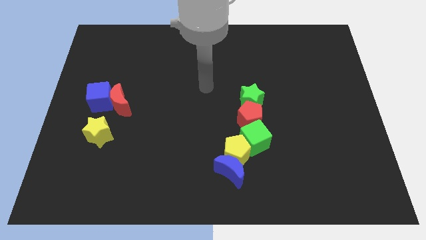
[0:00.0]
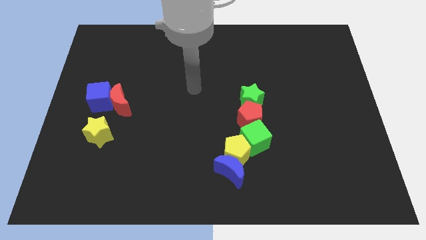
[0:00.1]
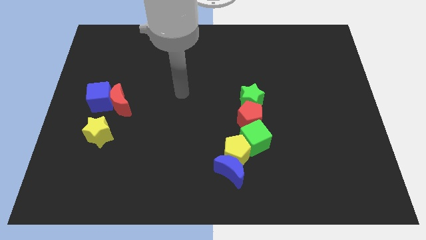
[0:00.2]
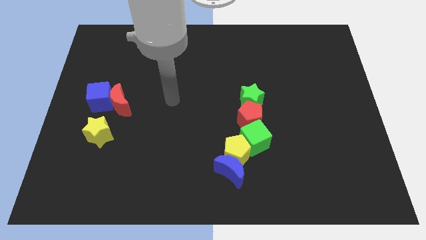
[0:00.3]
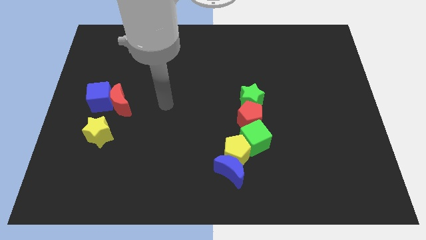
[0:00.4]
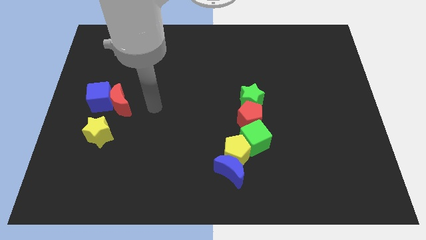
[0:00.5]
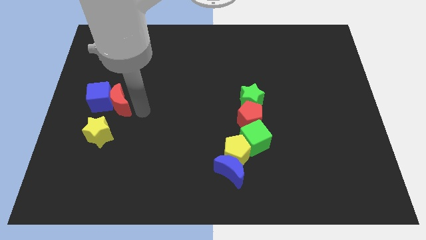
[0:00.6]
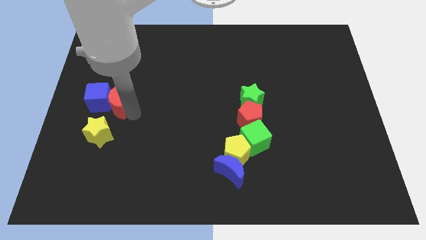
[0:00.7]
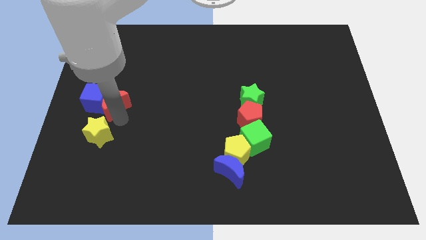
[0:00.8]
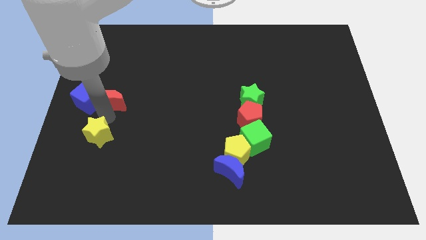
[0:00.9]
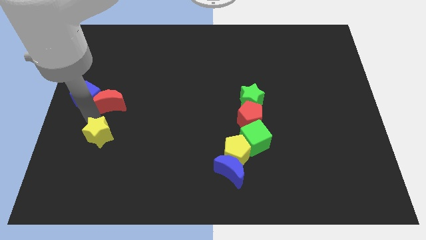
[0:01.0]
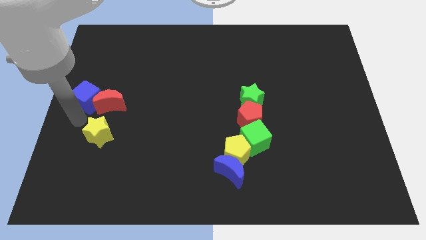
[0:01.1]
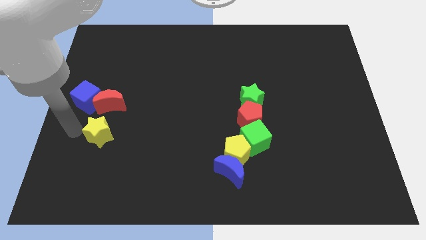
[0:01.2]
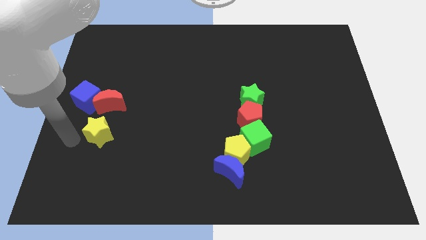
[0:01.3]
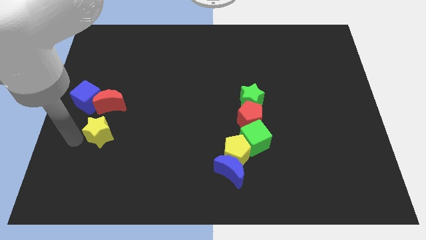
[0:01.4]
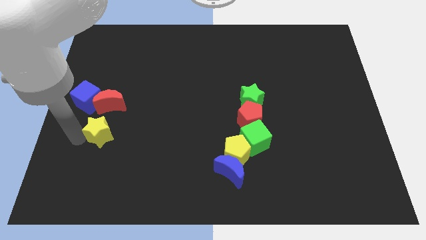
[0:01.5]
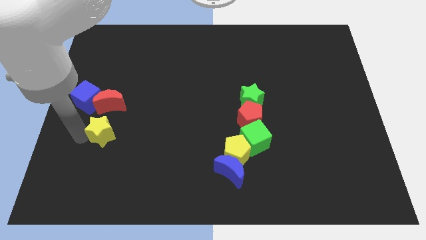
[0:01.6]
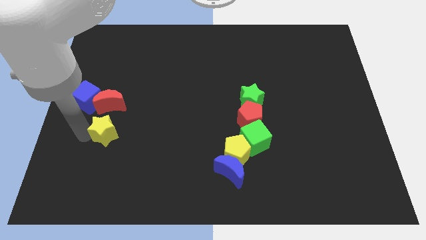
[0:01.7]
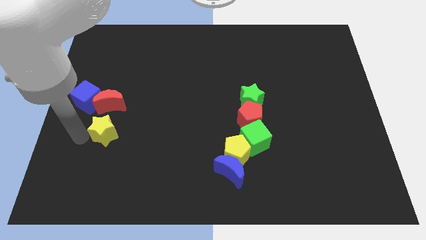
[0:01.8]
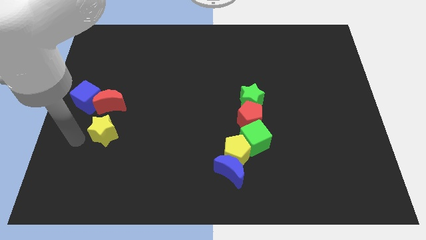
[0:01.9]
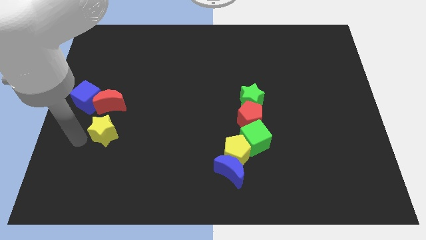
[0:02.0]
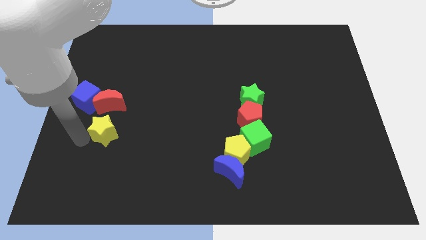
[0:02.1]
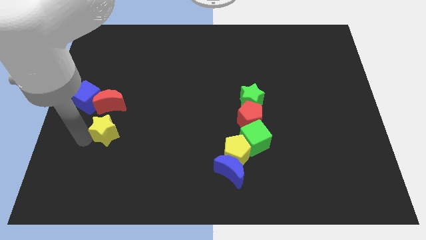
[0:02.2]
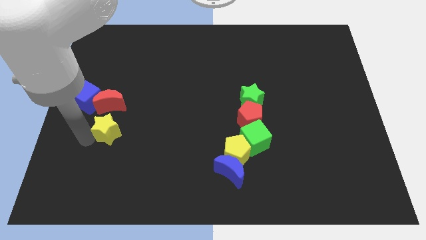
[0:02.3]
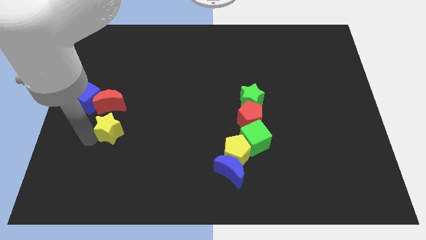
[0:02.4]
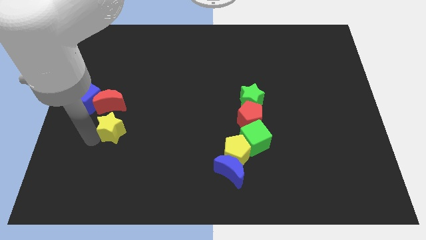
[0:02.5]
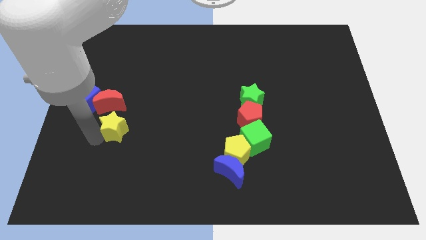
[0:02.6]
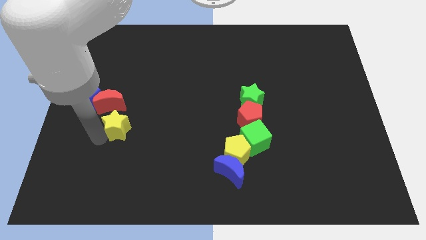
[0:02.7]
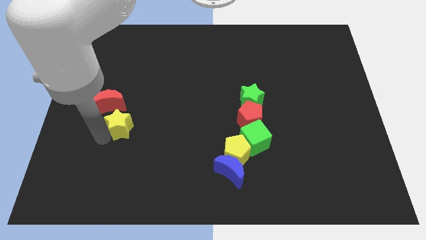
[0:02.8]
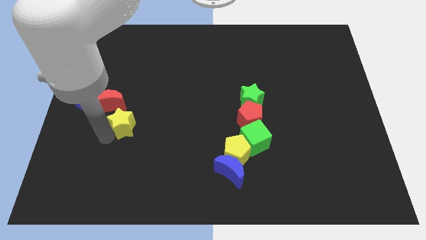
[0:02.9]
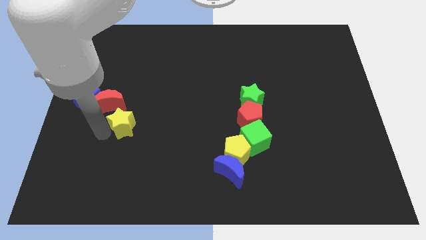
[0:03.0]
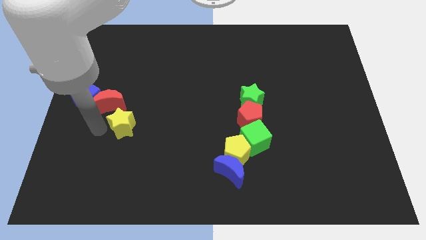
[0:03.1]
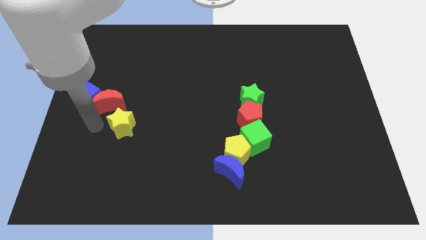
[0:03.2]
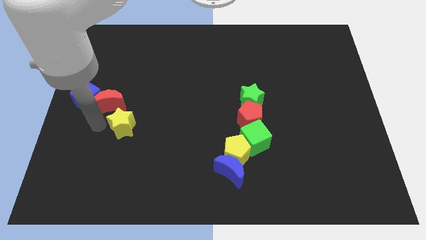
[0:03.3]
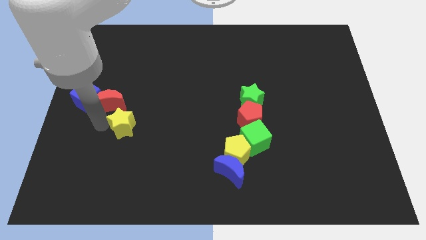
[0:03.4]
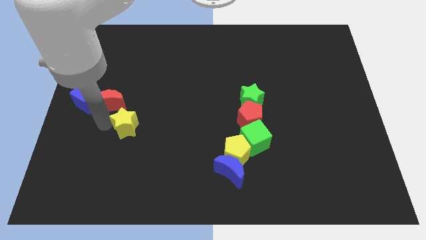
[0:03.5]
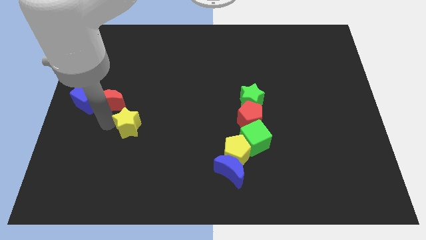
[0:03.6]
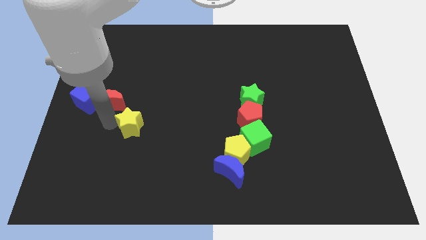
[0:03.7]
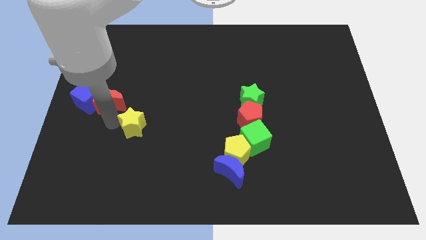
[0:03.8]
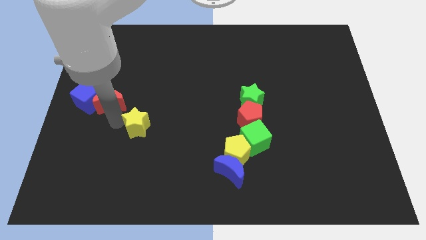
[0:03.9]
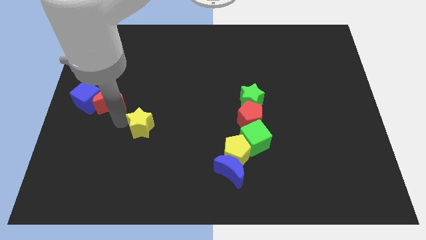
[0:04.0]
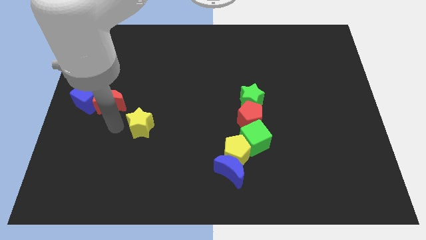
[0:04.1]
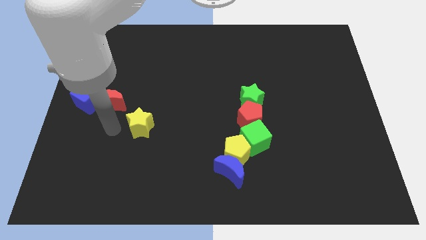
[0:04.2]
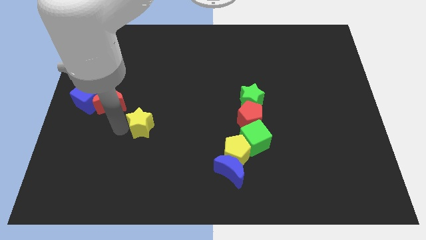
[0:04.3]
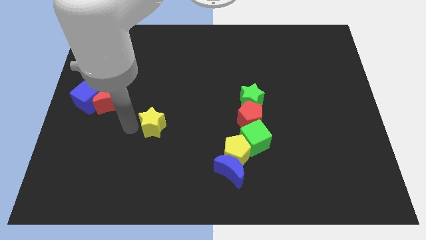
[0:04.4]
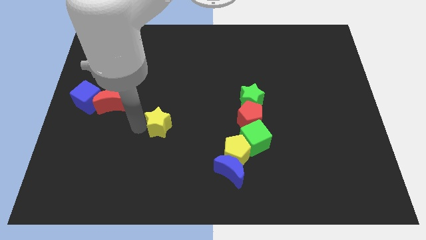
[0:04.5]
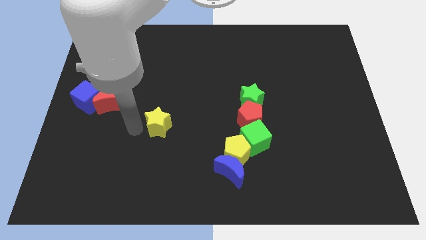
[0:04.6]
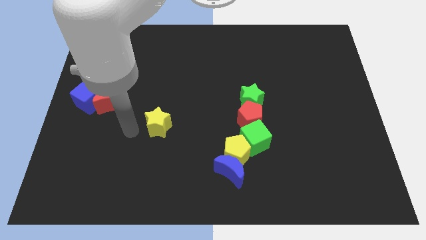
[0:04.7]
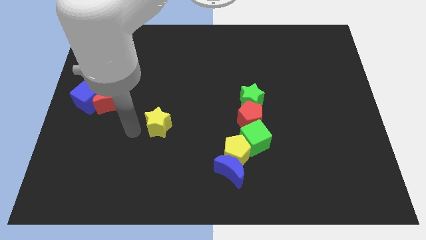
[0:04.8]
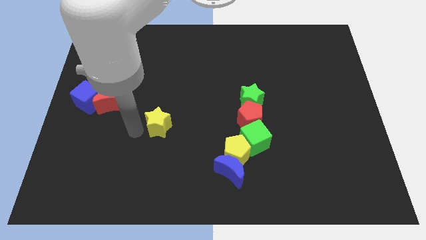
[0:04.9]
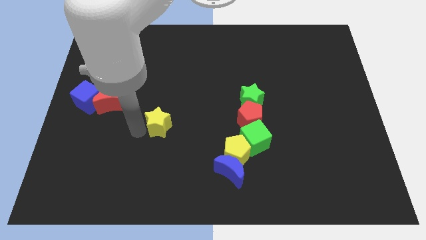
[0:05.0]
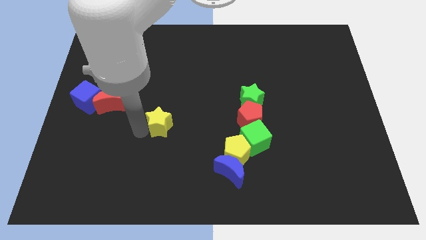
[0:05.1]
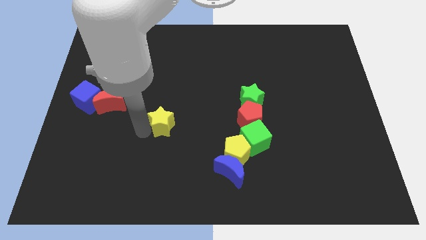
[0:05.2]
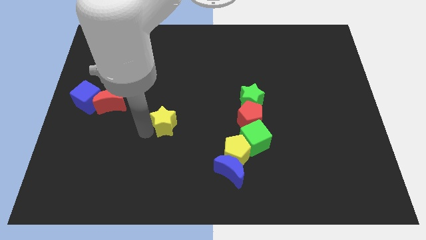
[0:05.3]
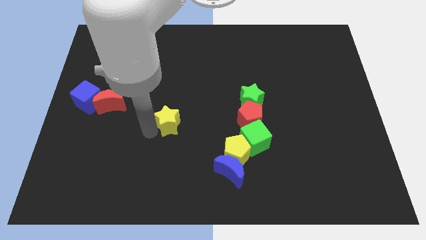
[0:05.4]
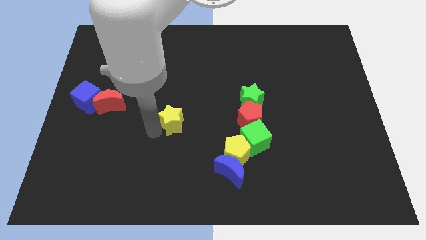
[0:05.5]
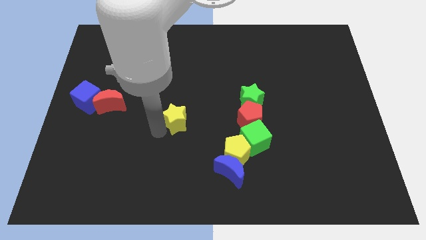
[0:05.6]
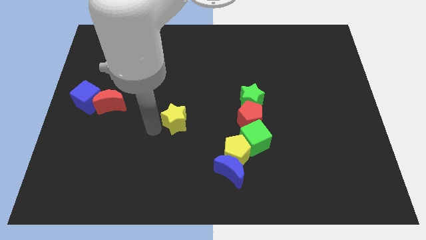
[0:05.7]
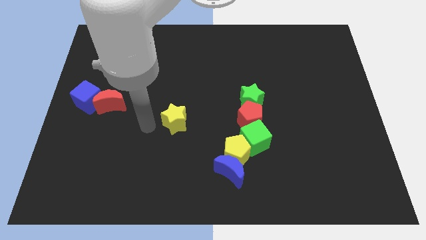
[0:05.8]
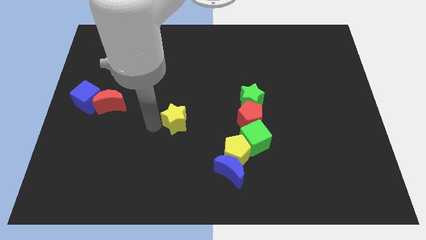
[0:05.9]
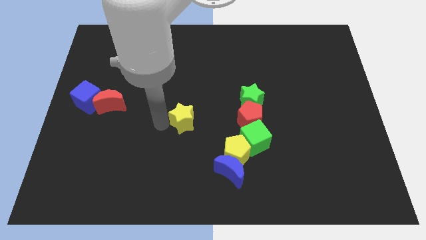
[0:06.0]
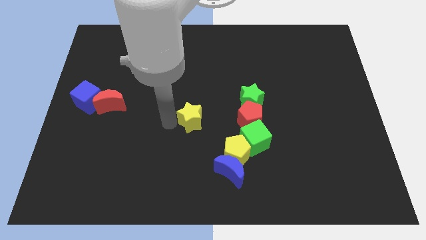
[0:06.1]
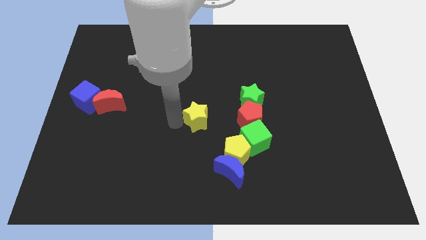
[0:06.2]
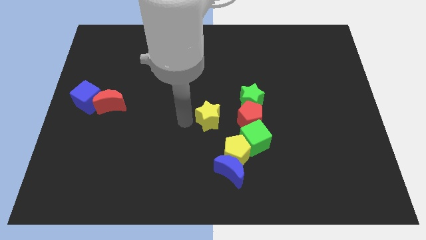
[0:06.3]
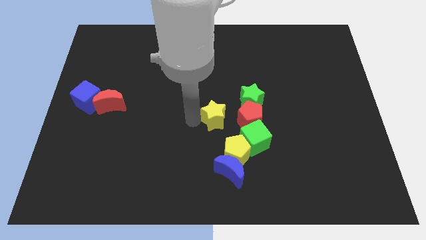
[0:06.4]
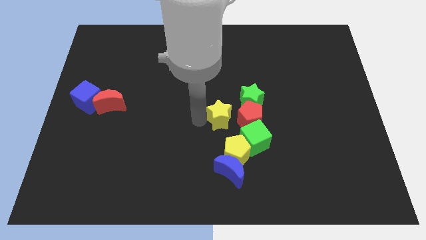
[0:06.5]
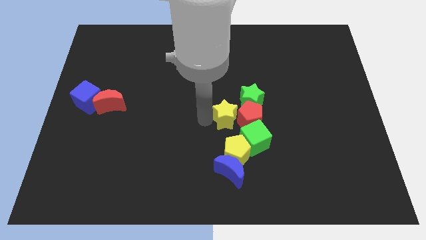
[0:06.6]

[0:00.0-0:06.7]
put the yellow star to the red pentagon

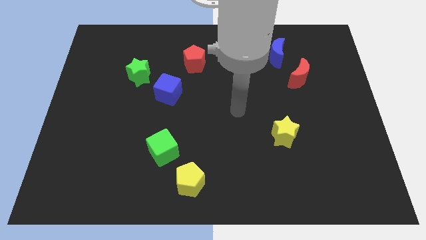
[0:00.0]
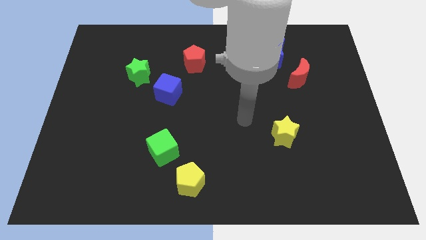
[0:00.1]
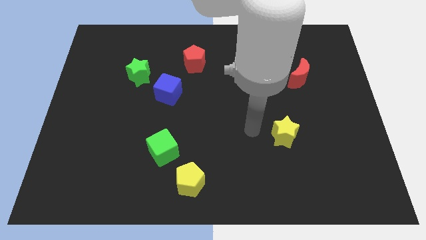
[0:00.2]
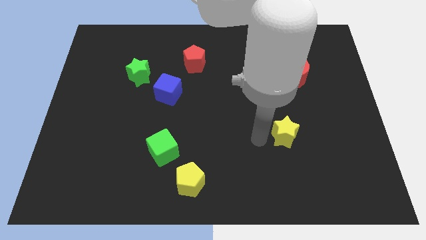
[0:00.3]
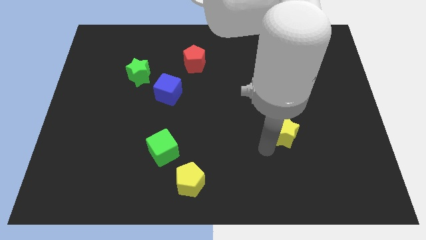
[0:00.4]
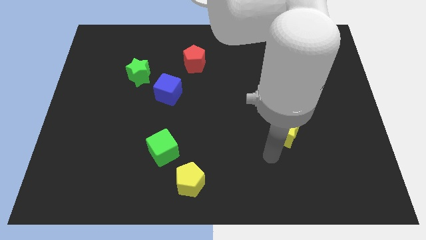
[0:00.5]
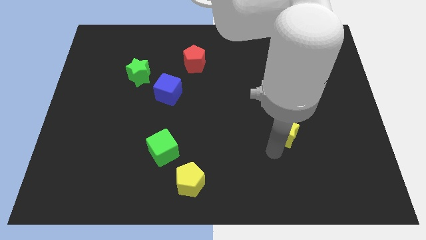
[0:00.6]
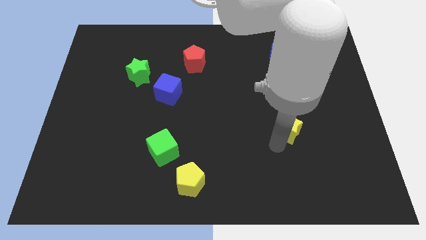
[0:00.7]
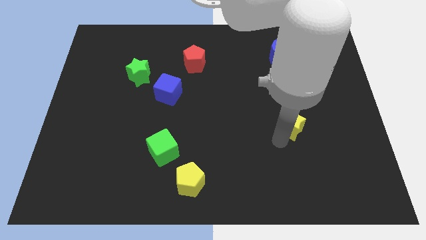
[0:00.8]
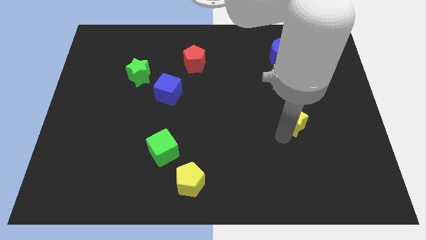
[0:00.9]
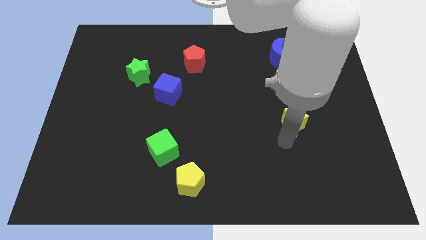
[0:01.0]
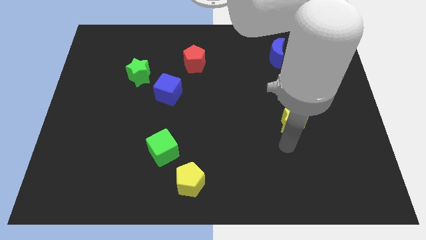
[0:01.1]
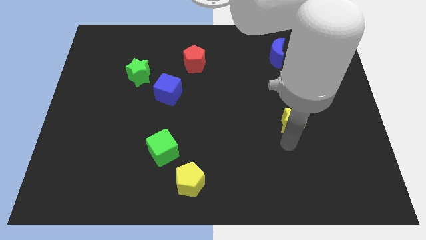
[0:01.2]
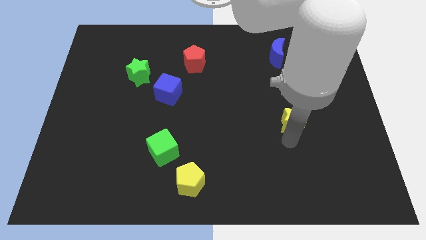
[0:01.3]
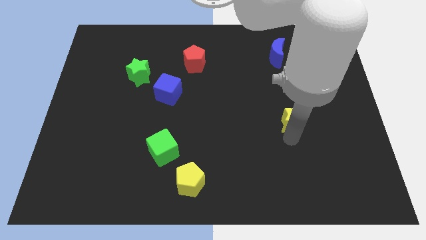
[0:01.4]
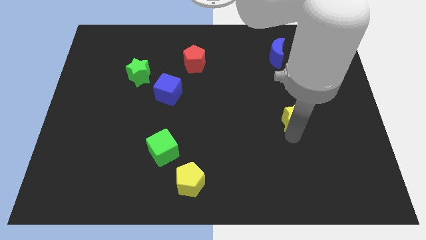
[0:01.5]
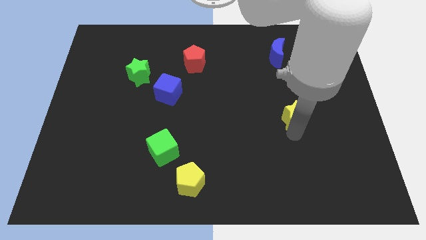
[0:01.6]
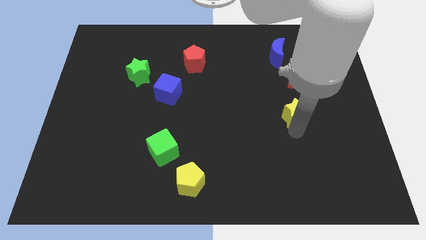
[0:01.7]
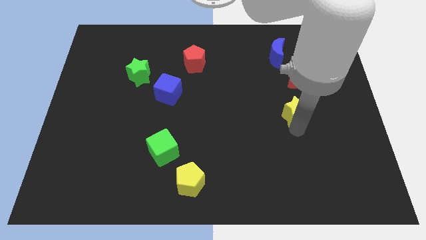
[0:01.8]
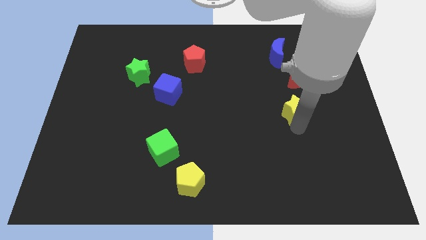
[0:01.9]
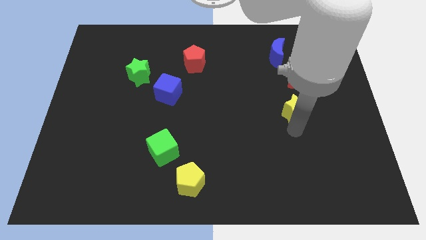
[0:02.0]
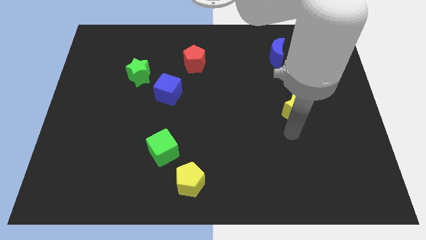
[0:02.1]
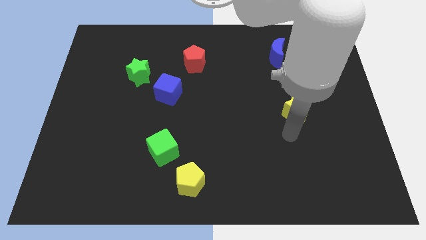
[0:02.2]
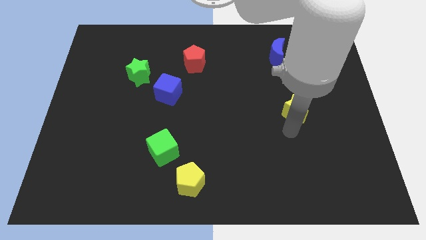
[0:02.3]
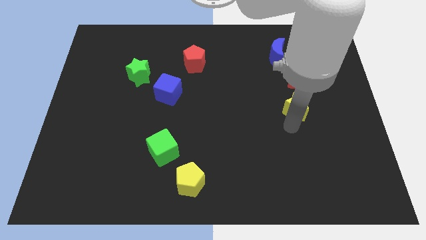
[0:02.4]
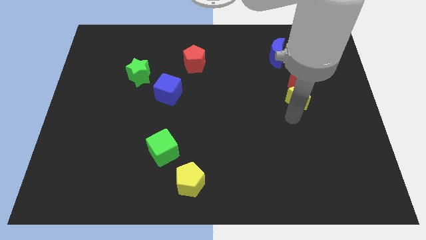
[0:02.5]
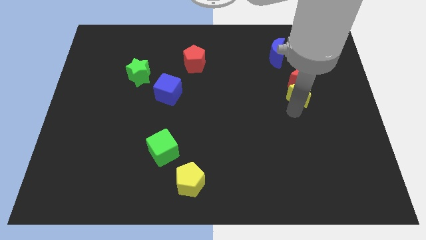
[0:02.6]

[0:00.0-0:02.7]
push the yellow star next to the red moon
